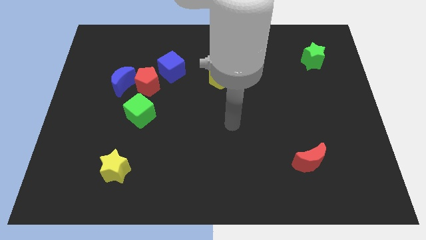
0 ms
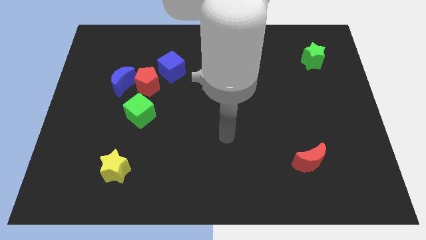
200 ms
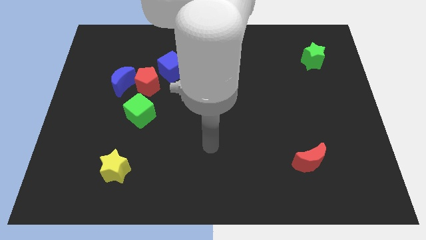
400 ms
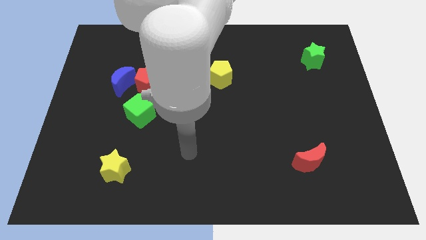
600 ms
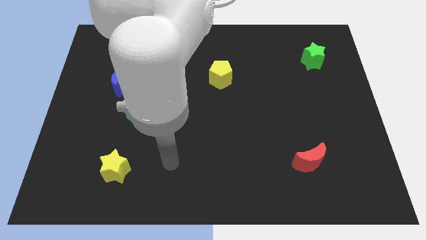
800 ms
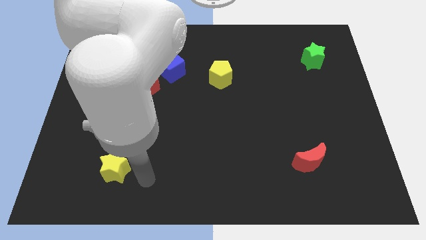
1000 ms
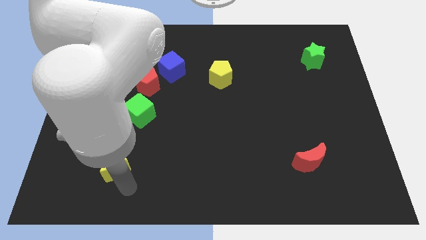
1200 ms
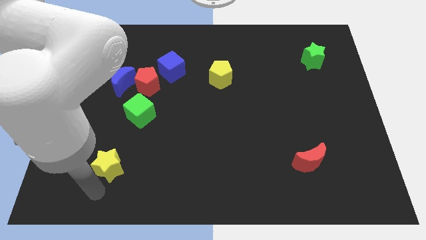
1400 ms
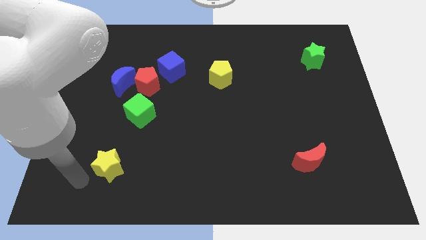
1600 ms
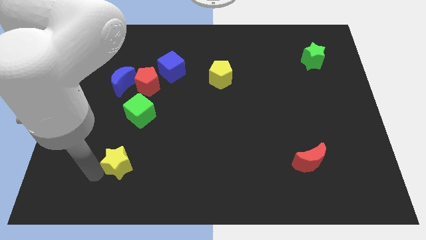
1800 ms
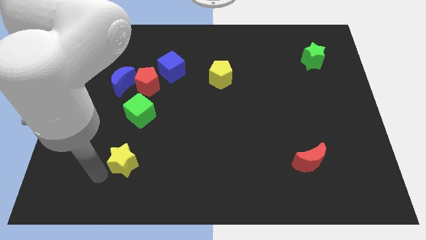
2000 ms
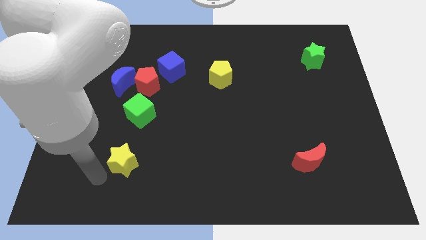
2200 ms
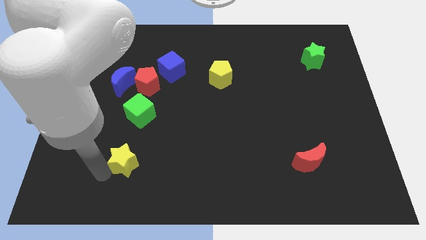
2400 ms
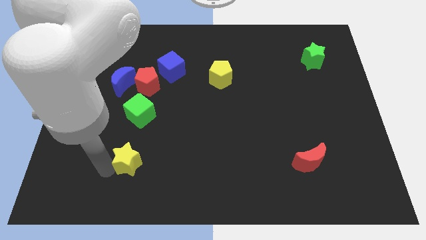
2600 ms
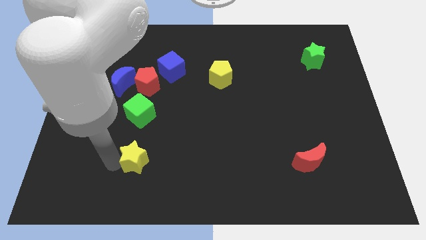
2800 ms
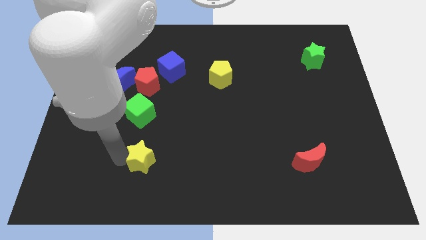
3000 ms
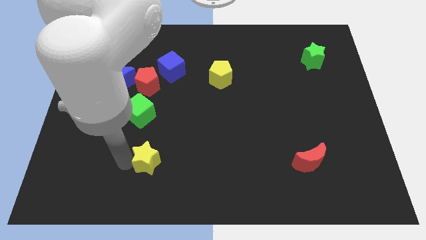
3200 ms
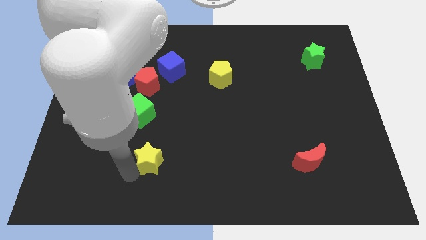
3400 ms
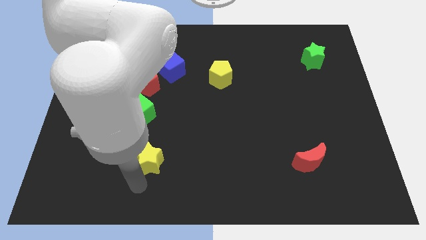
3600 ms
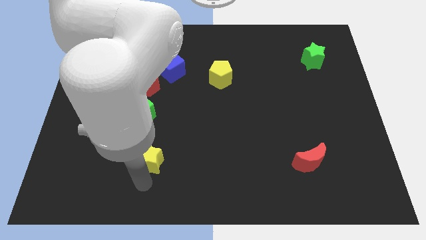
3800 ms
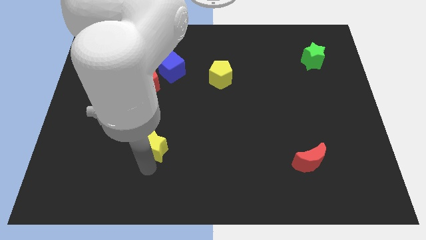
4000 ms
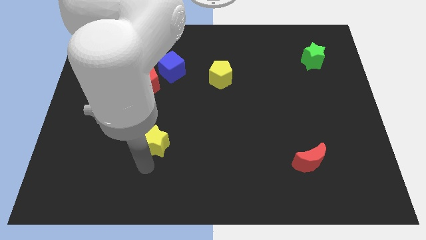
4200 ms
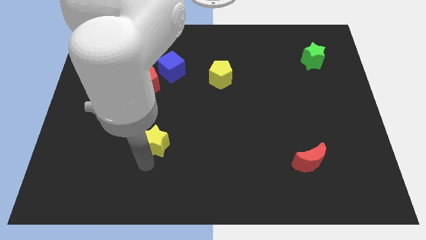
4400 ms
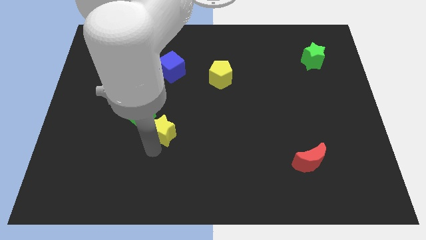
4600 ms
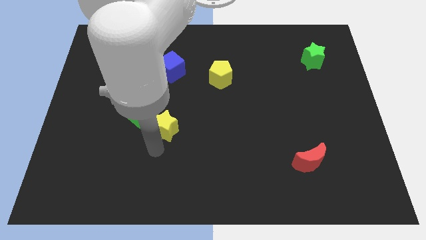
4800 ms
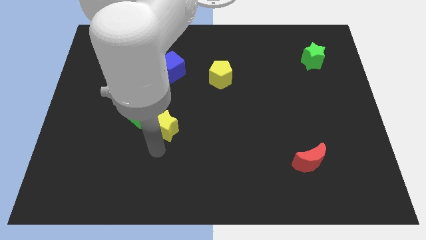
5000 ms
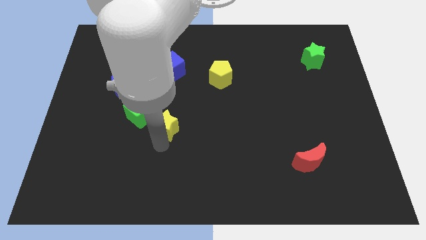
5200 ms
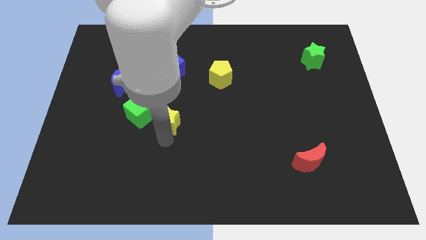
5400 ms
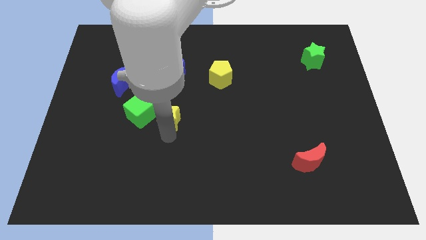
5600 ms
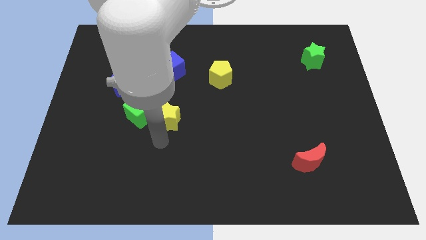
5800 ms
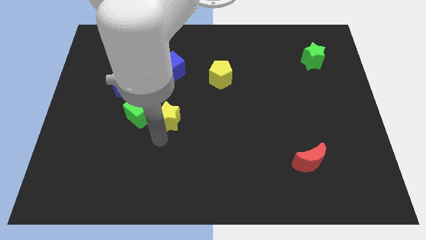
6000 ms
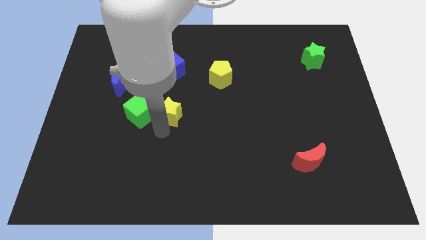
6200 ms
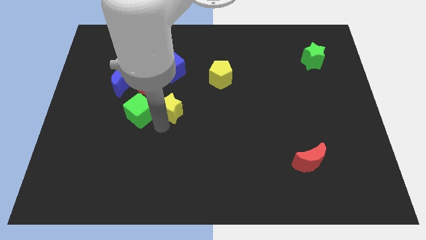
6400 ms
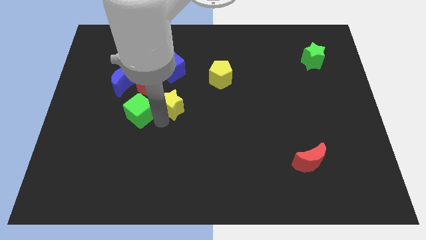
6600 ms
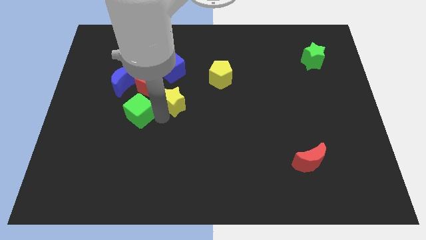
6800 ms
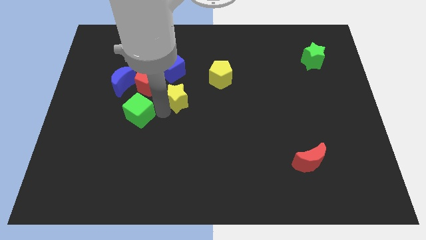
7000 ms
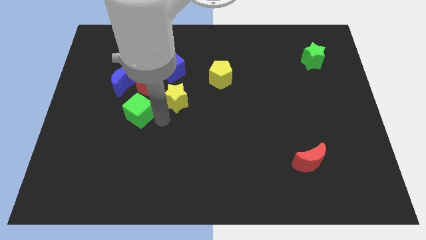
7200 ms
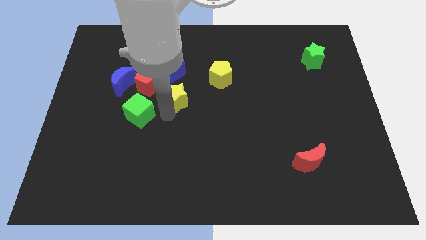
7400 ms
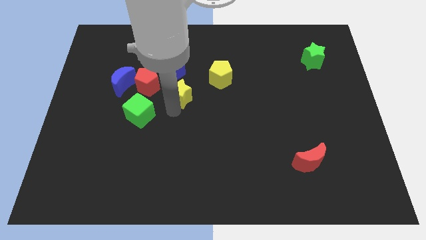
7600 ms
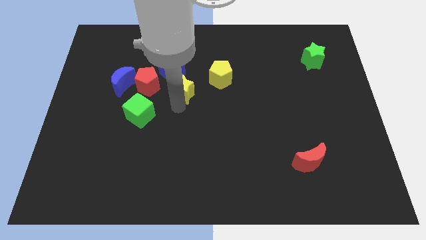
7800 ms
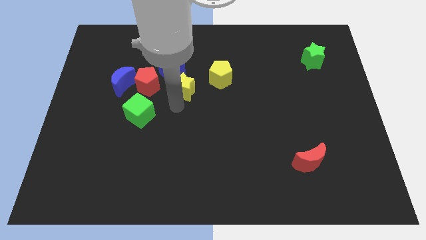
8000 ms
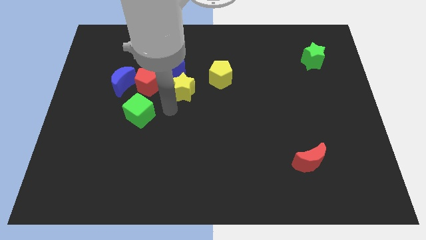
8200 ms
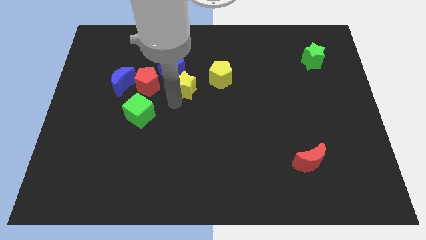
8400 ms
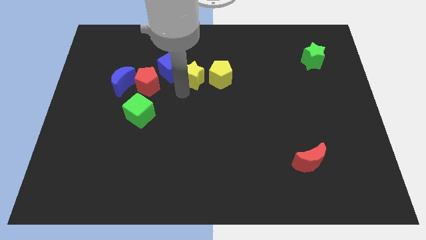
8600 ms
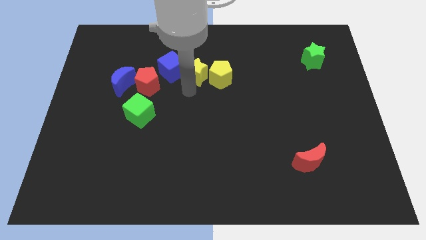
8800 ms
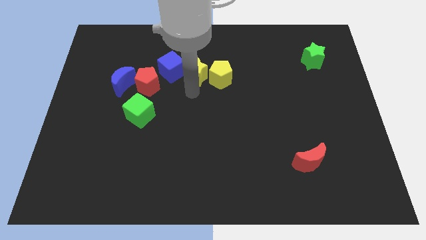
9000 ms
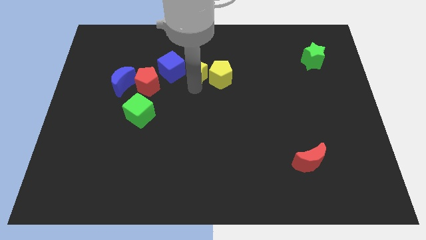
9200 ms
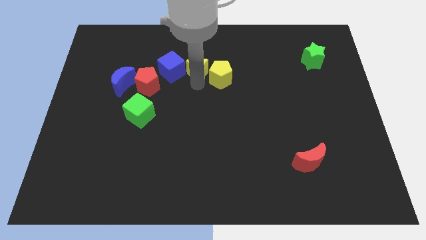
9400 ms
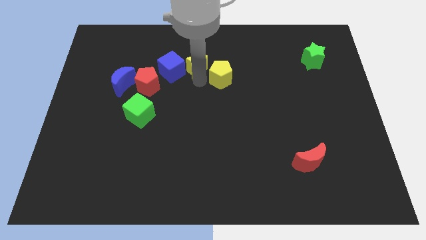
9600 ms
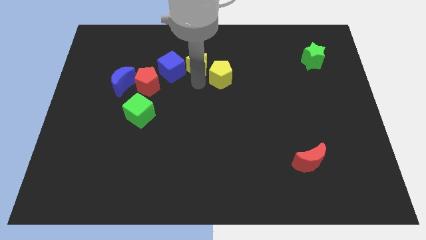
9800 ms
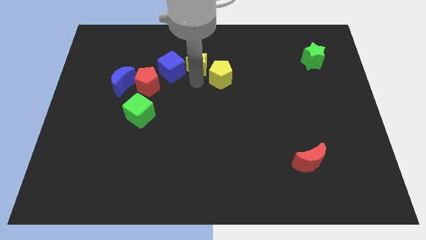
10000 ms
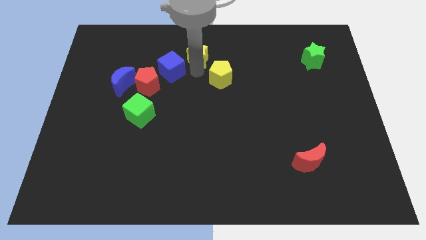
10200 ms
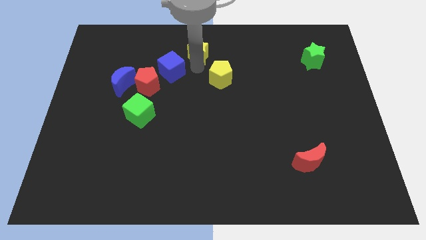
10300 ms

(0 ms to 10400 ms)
put the yellow star to the top
